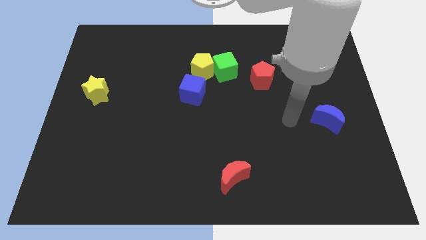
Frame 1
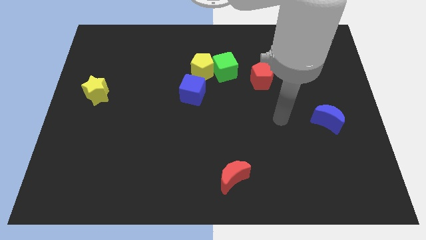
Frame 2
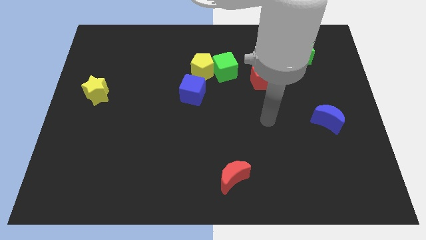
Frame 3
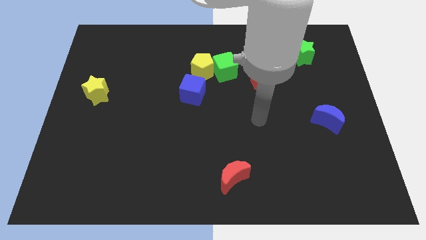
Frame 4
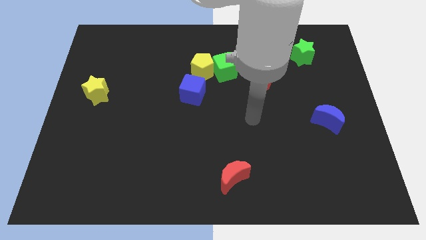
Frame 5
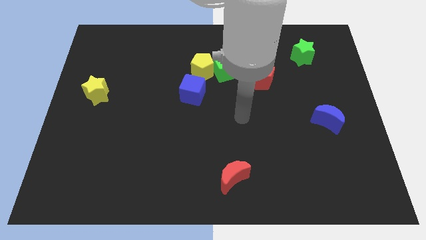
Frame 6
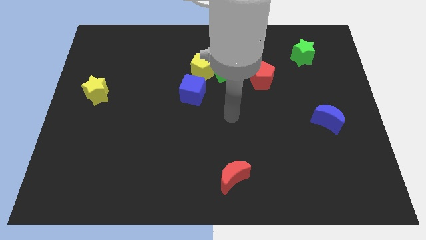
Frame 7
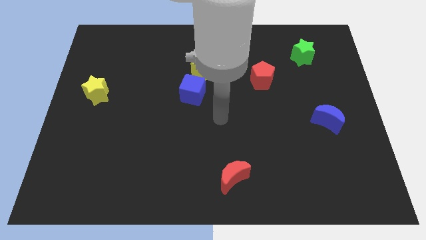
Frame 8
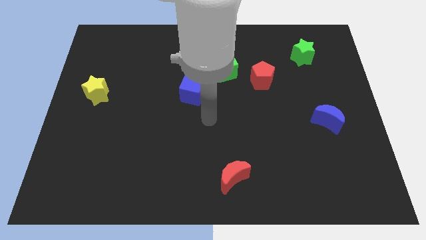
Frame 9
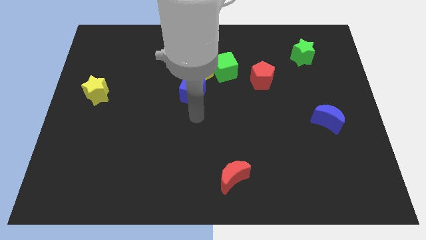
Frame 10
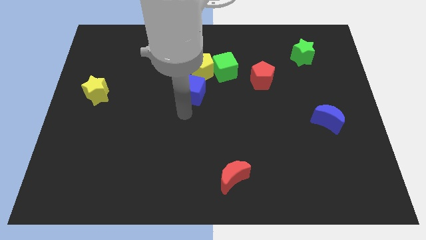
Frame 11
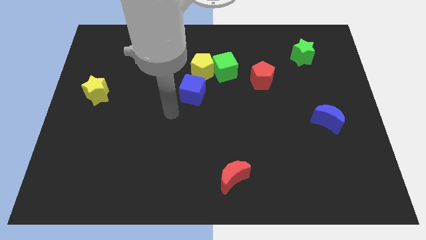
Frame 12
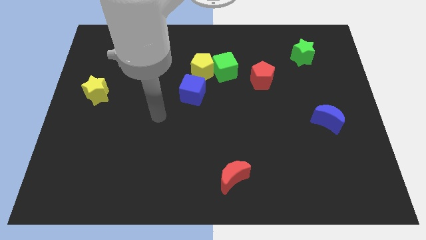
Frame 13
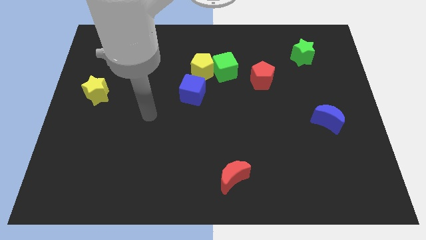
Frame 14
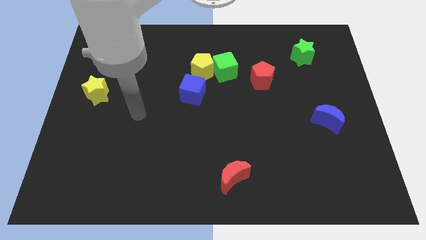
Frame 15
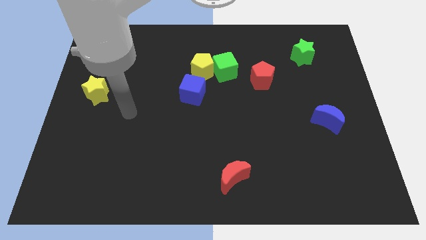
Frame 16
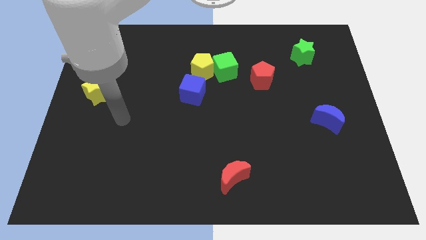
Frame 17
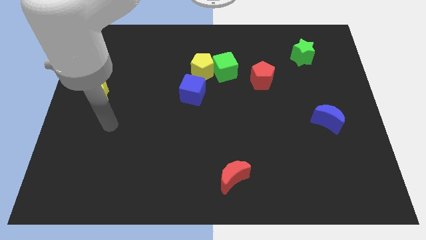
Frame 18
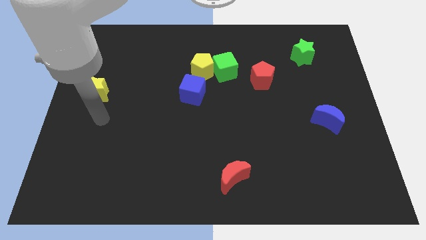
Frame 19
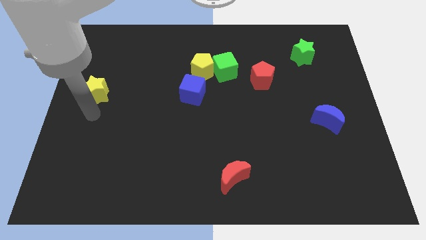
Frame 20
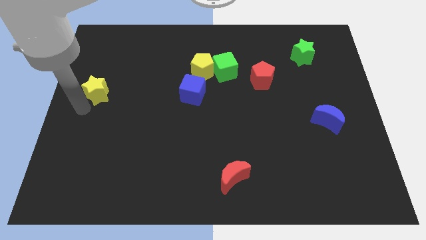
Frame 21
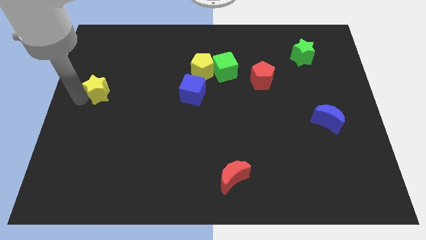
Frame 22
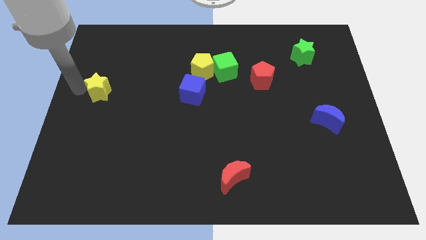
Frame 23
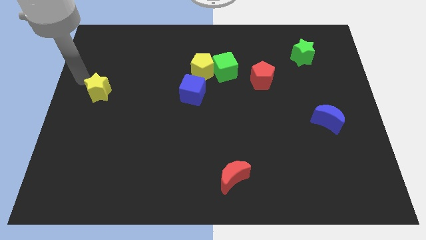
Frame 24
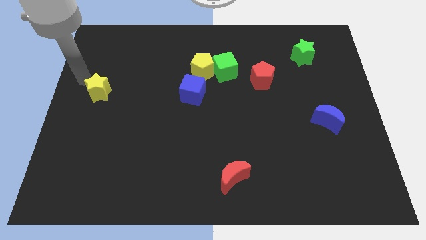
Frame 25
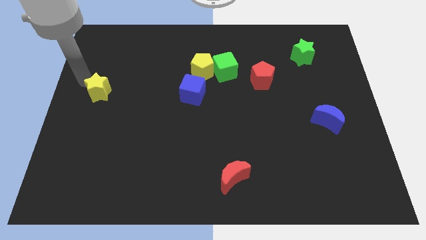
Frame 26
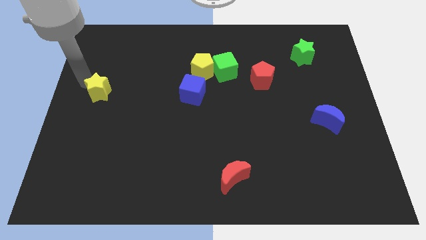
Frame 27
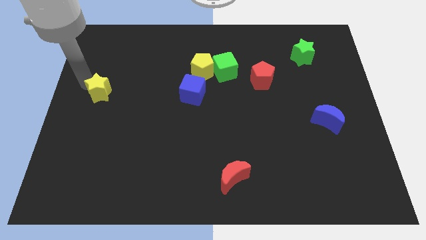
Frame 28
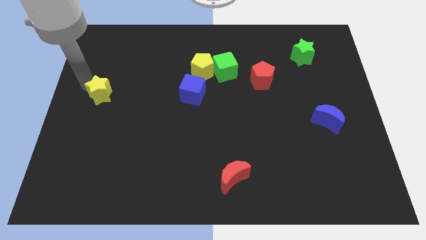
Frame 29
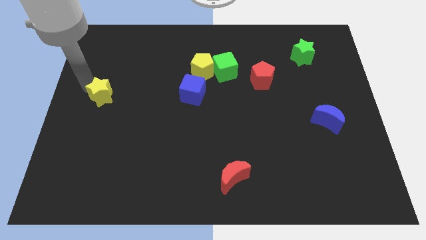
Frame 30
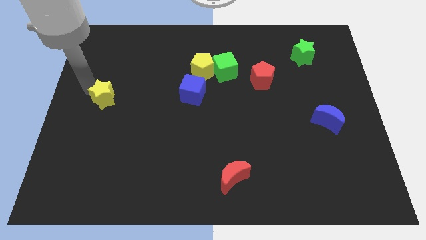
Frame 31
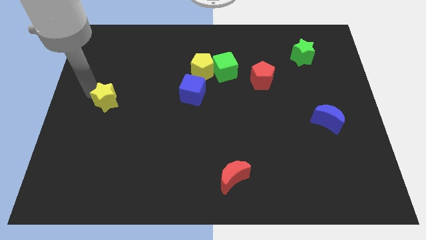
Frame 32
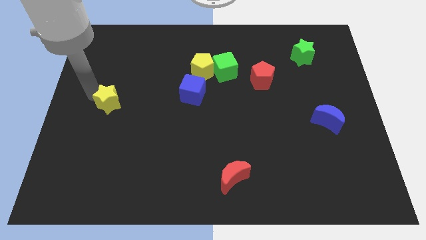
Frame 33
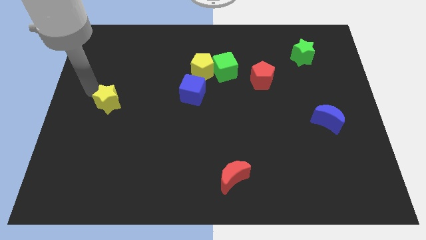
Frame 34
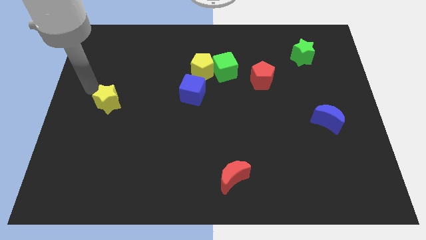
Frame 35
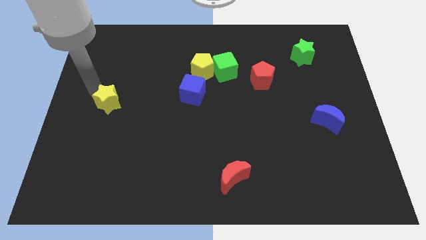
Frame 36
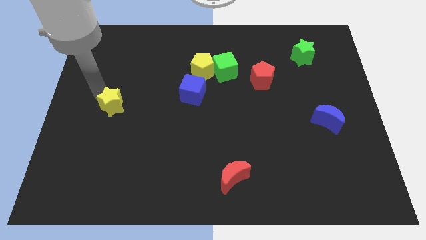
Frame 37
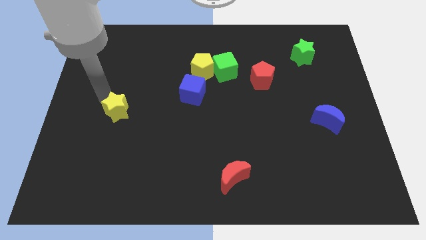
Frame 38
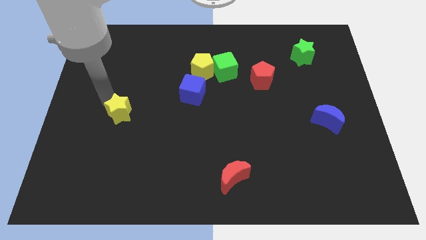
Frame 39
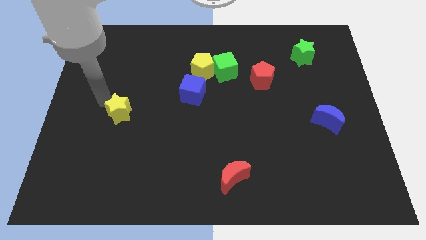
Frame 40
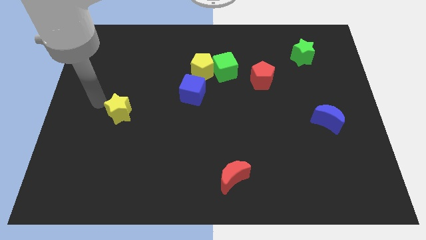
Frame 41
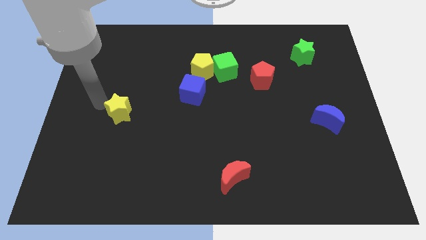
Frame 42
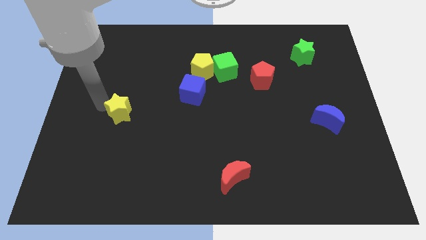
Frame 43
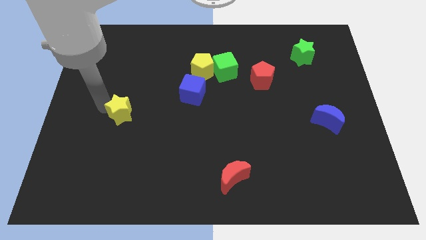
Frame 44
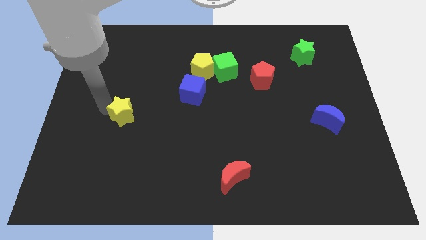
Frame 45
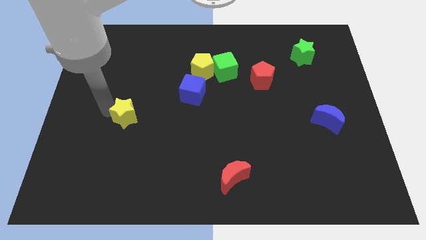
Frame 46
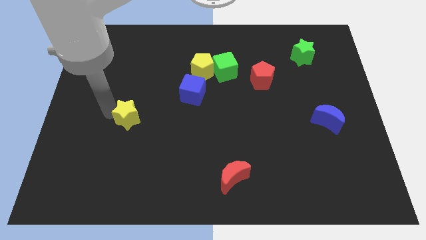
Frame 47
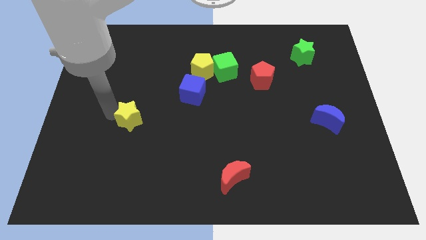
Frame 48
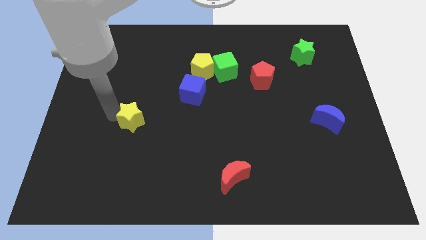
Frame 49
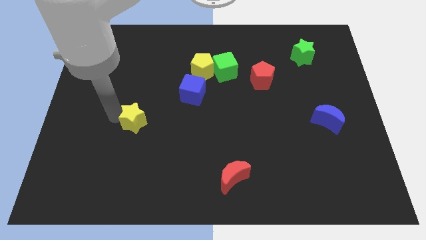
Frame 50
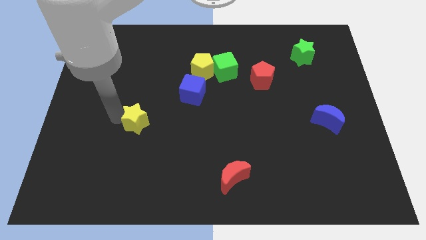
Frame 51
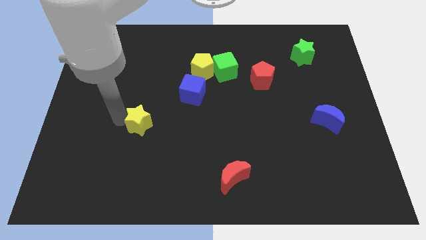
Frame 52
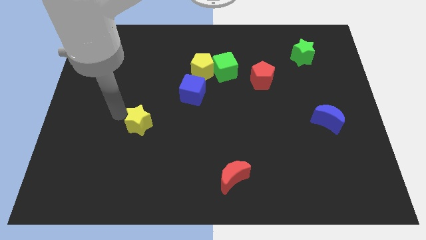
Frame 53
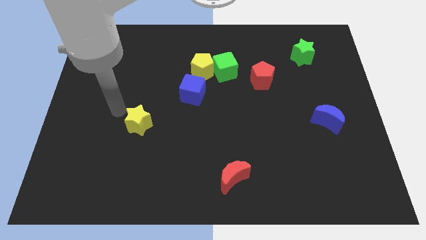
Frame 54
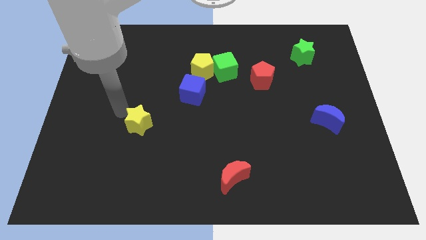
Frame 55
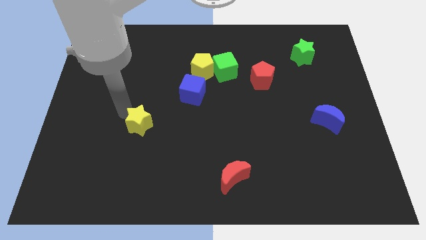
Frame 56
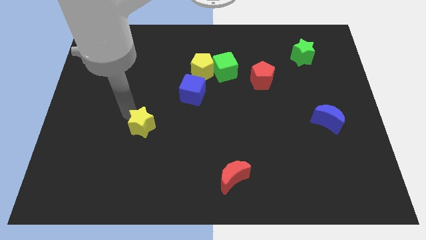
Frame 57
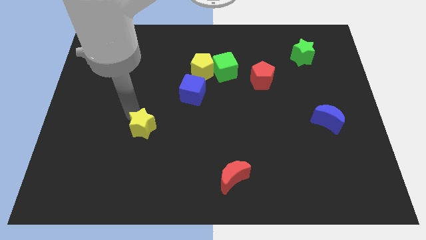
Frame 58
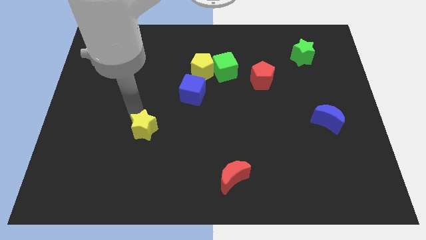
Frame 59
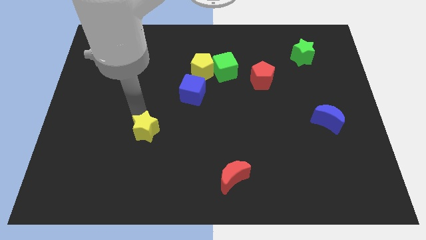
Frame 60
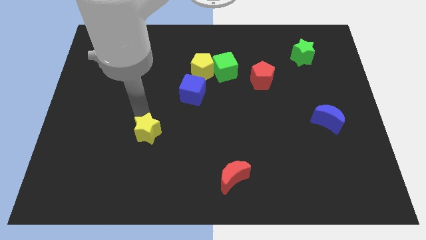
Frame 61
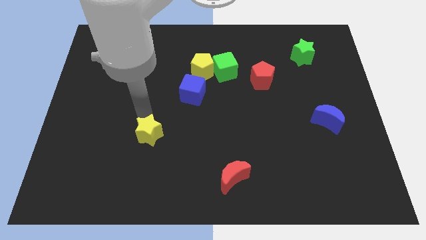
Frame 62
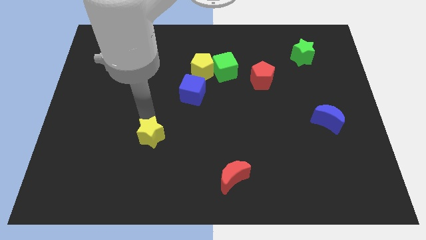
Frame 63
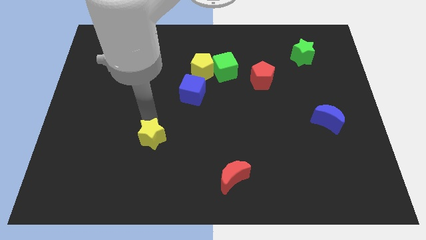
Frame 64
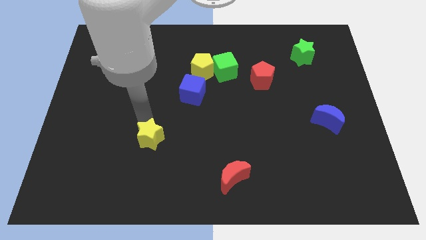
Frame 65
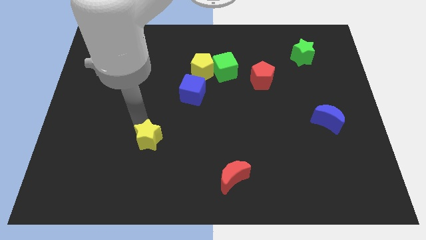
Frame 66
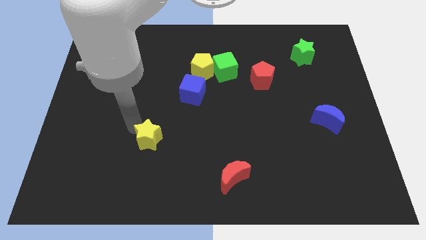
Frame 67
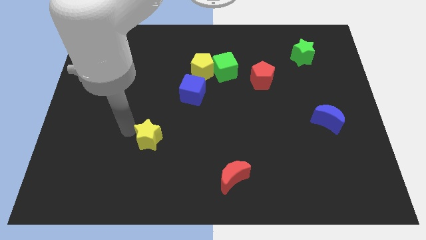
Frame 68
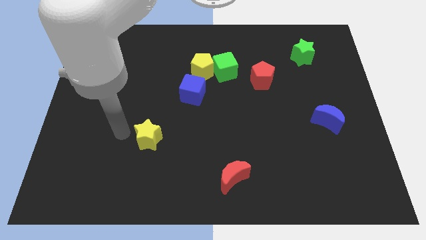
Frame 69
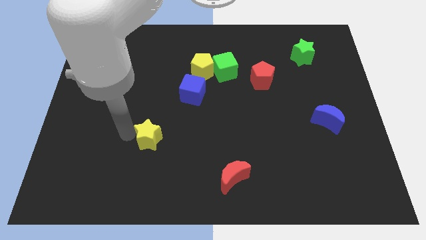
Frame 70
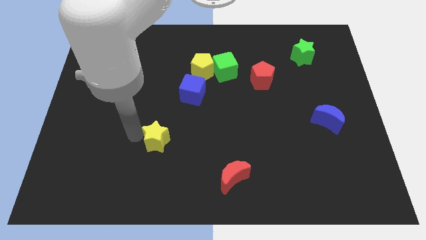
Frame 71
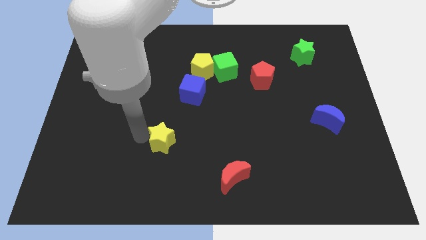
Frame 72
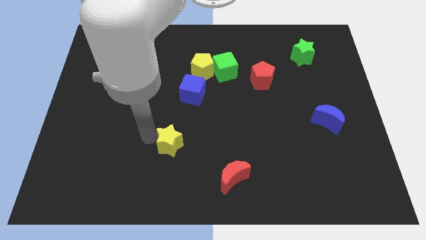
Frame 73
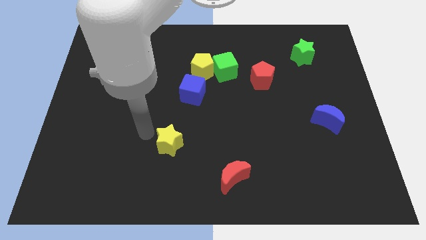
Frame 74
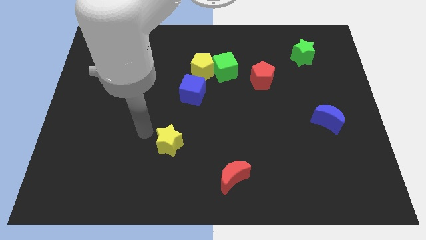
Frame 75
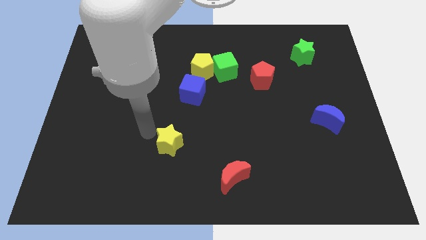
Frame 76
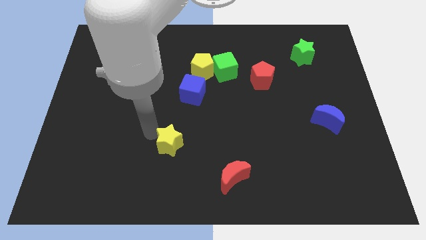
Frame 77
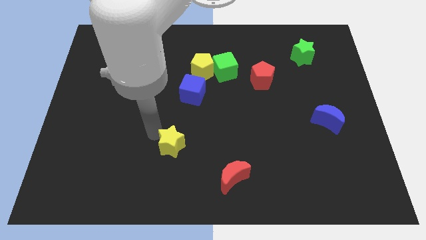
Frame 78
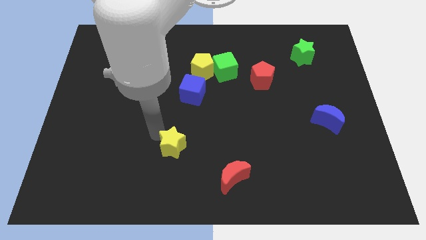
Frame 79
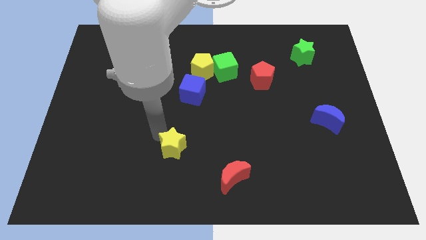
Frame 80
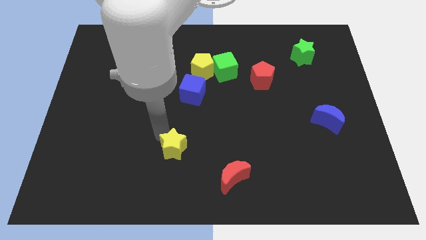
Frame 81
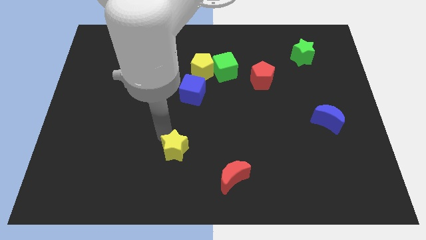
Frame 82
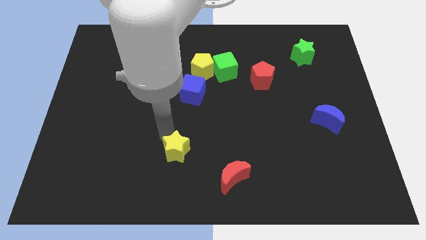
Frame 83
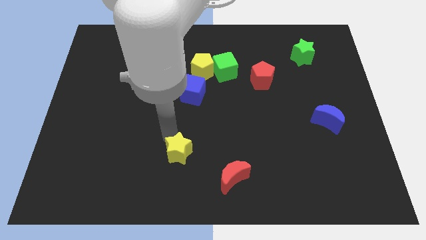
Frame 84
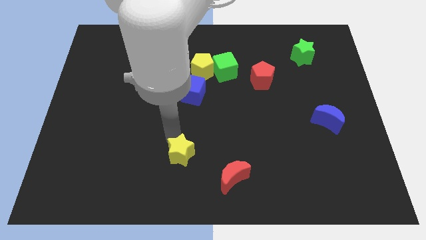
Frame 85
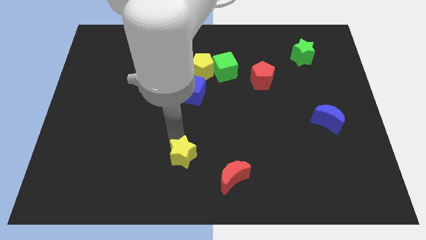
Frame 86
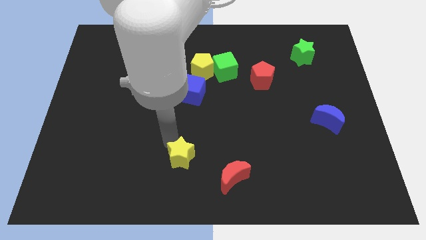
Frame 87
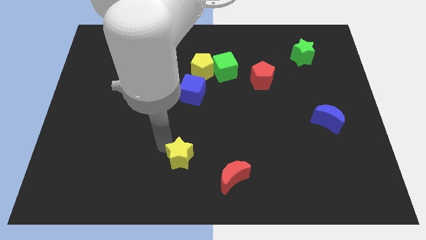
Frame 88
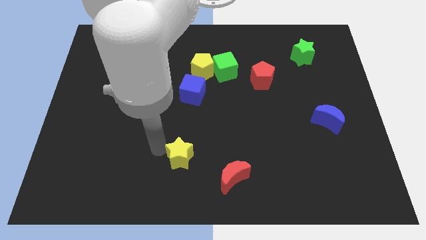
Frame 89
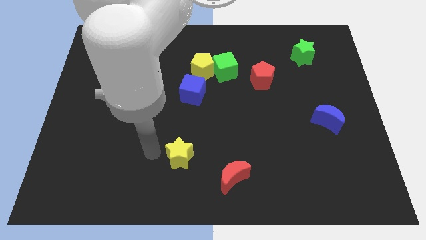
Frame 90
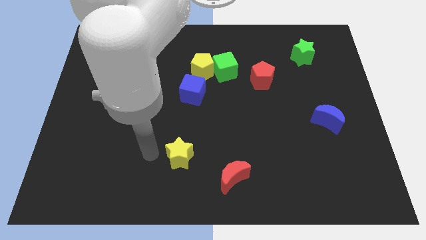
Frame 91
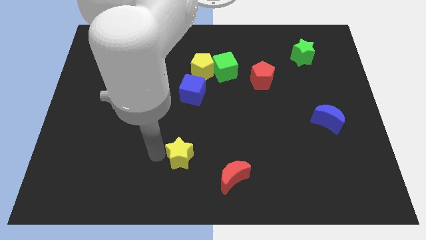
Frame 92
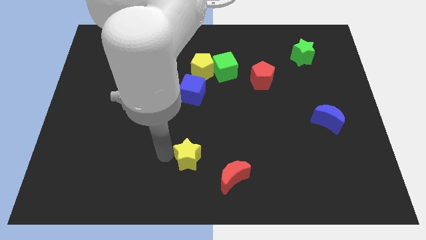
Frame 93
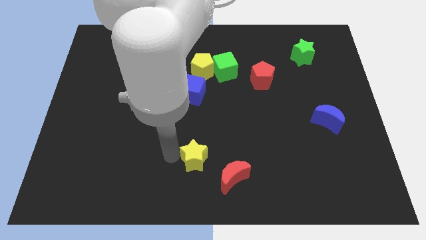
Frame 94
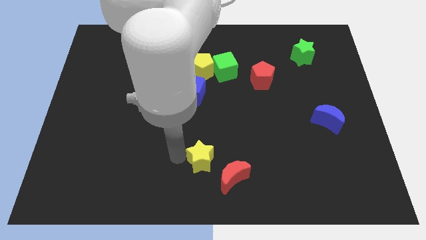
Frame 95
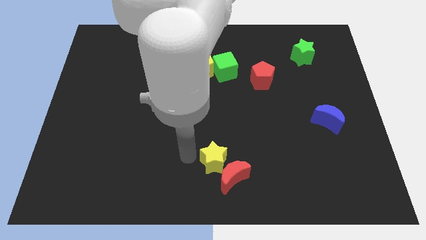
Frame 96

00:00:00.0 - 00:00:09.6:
put the yellow star next to the red moon
